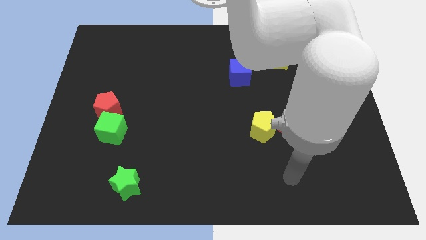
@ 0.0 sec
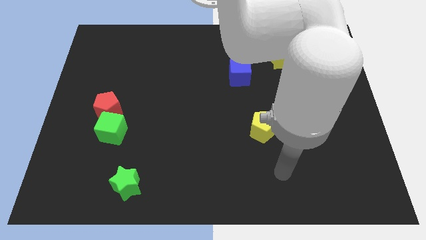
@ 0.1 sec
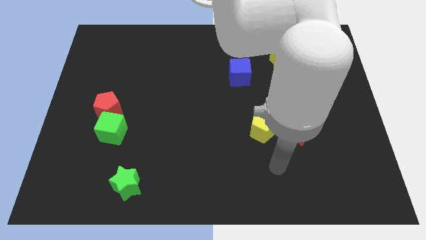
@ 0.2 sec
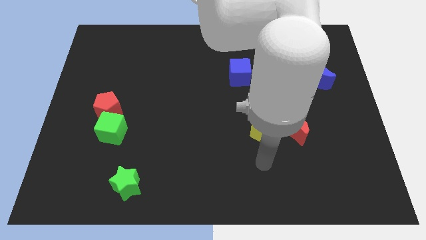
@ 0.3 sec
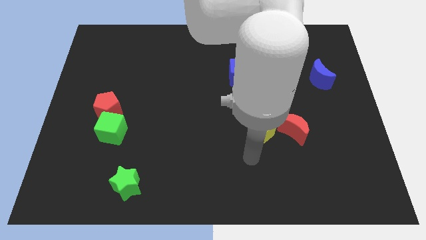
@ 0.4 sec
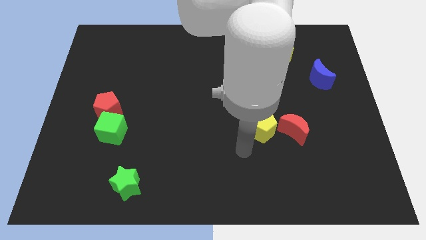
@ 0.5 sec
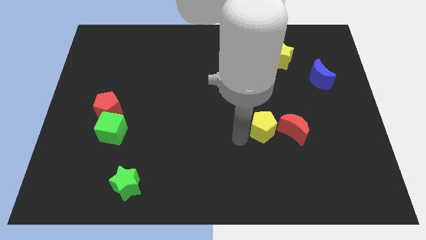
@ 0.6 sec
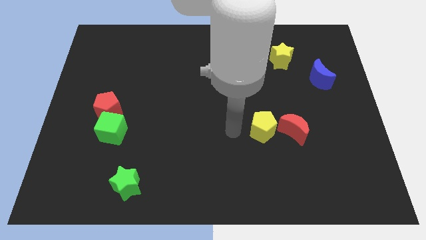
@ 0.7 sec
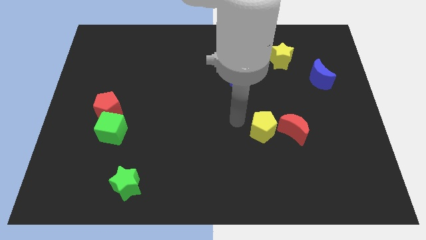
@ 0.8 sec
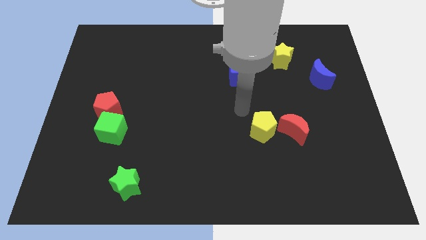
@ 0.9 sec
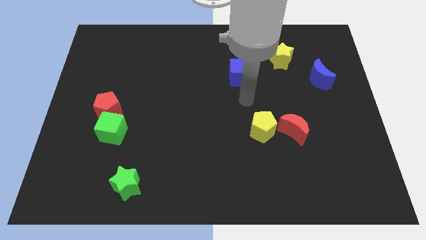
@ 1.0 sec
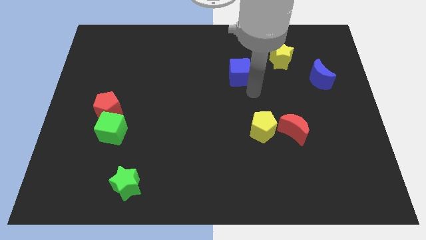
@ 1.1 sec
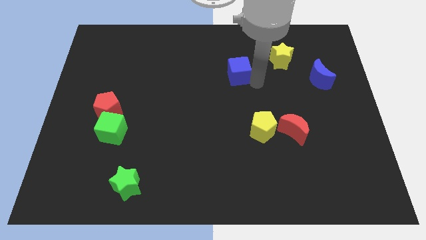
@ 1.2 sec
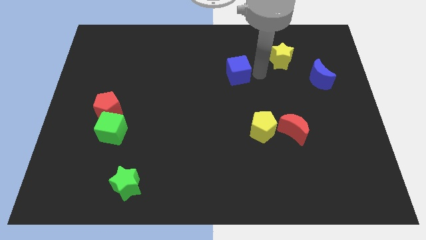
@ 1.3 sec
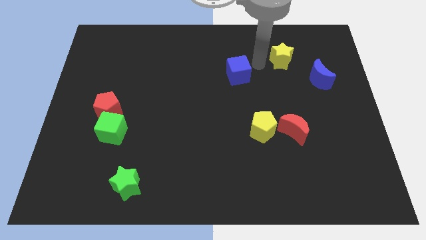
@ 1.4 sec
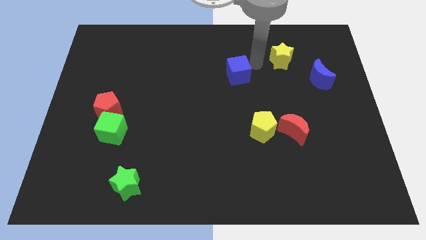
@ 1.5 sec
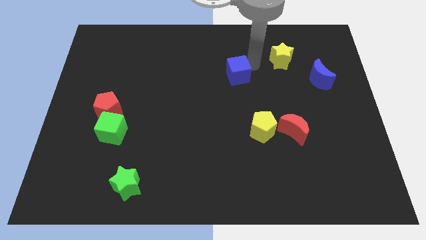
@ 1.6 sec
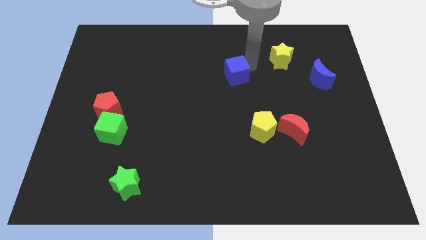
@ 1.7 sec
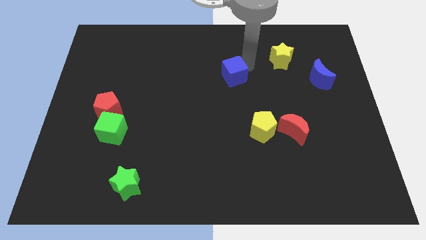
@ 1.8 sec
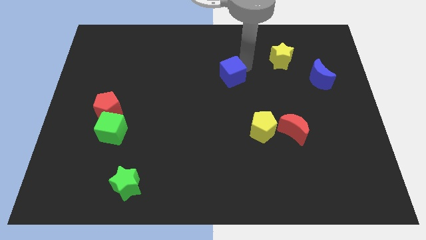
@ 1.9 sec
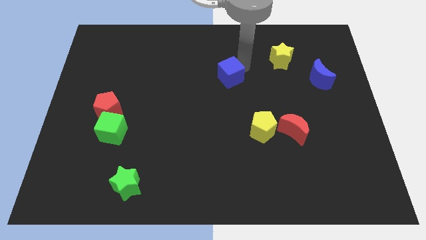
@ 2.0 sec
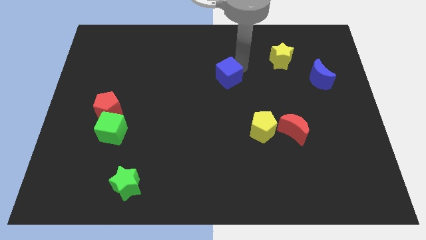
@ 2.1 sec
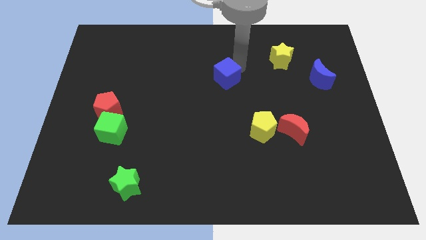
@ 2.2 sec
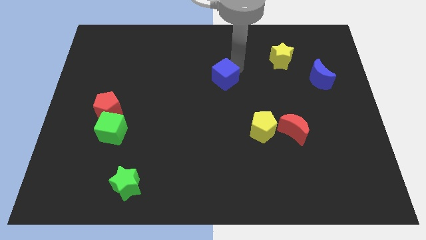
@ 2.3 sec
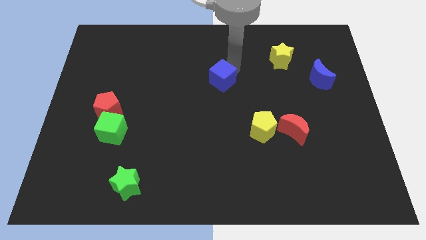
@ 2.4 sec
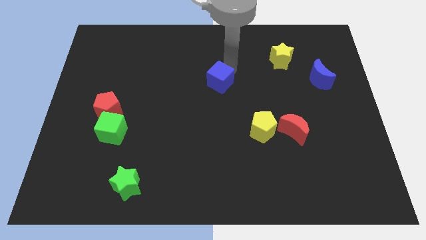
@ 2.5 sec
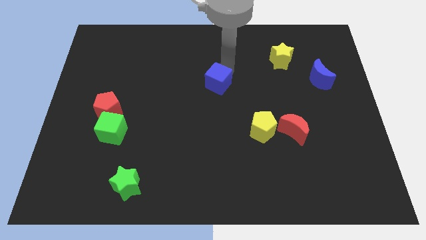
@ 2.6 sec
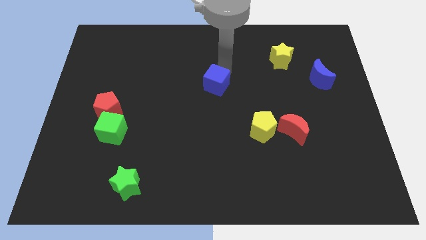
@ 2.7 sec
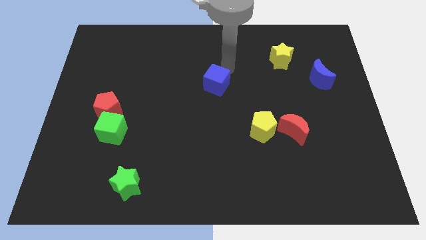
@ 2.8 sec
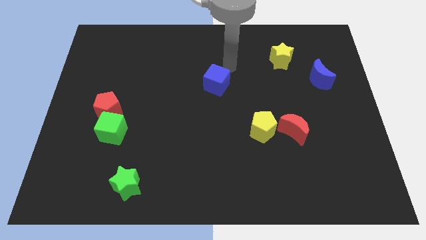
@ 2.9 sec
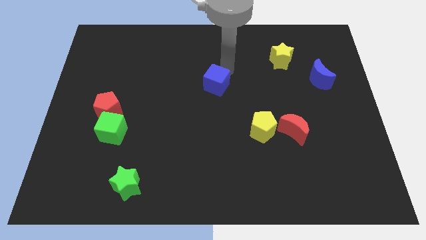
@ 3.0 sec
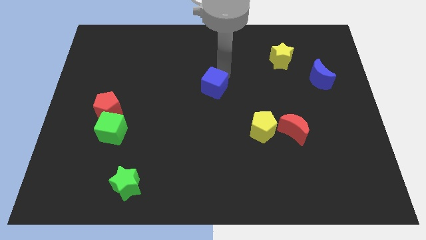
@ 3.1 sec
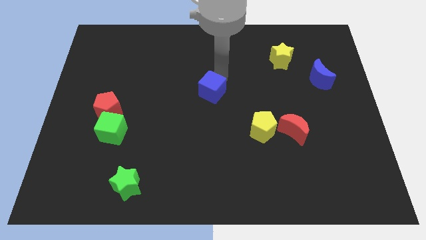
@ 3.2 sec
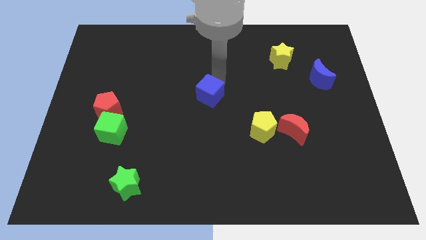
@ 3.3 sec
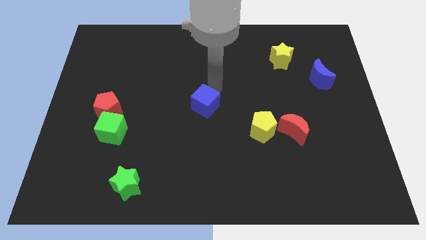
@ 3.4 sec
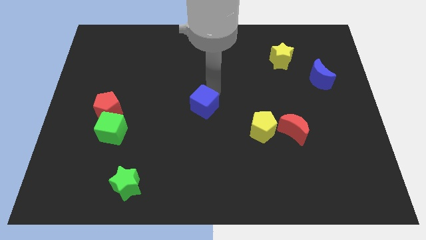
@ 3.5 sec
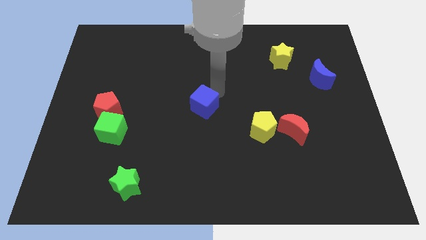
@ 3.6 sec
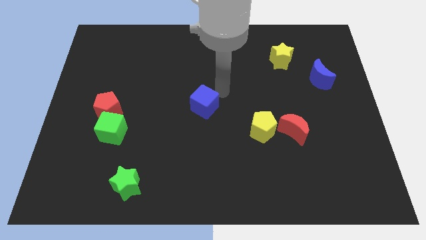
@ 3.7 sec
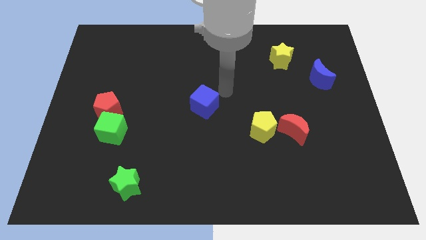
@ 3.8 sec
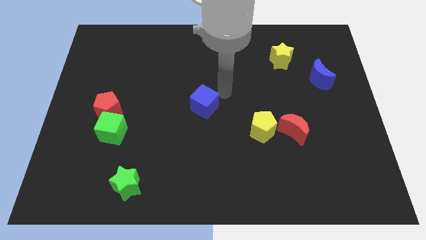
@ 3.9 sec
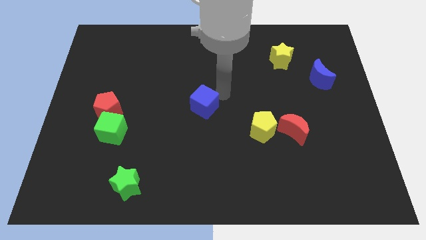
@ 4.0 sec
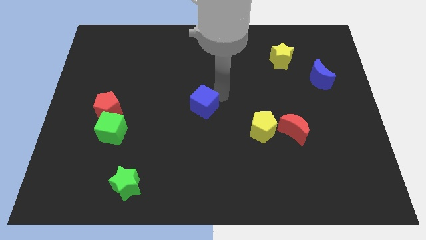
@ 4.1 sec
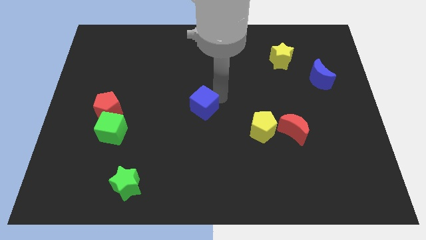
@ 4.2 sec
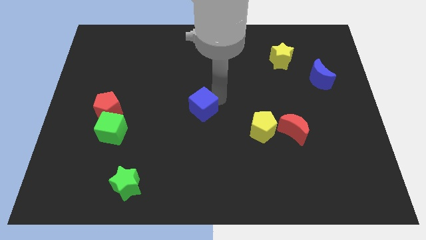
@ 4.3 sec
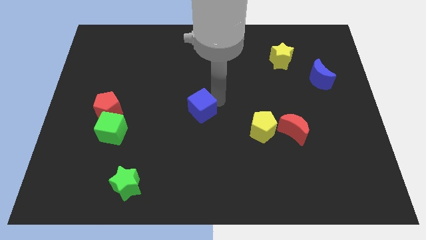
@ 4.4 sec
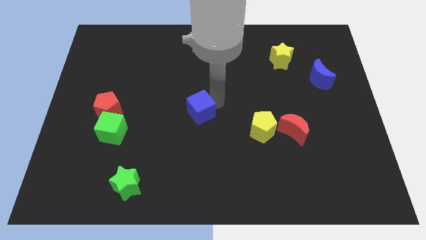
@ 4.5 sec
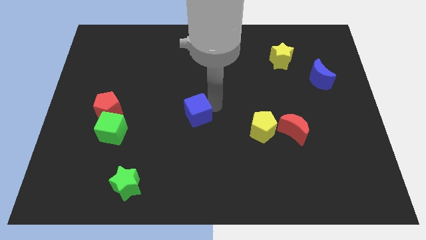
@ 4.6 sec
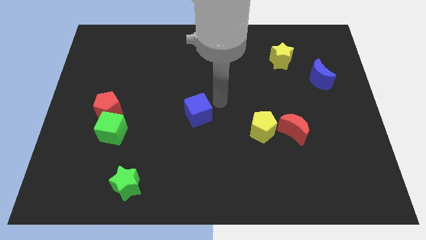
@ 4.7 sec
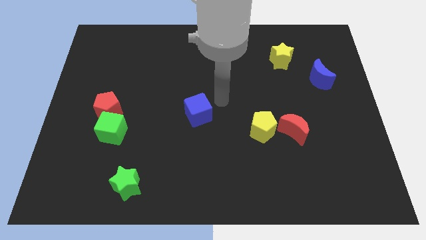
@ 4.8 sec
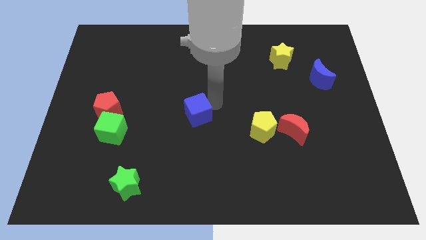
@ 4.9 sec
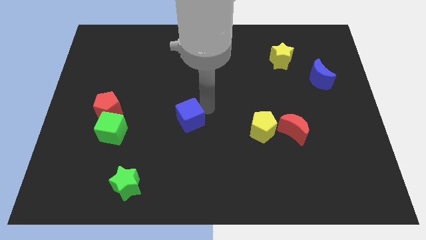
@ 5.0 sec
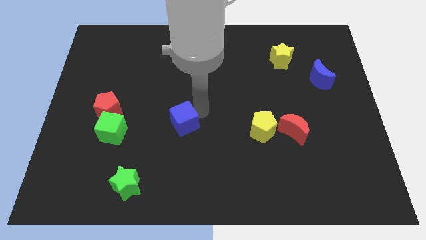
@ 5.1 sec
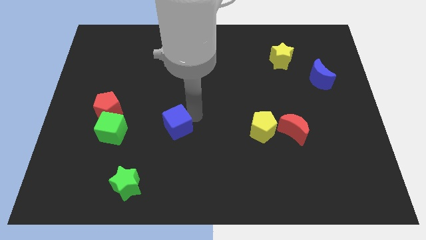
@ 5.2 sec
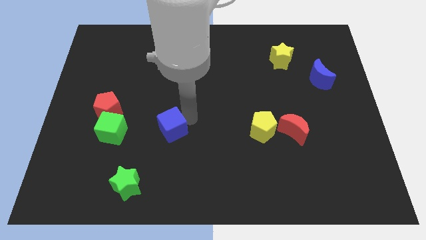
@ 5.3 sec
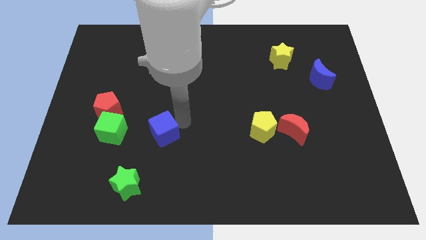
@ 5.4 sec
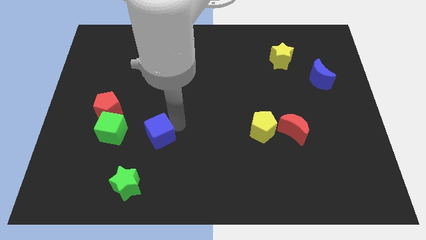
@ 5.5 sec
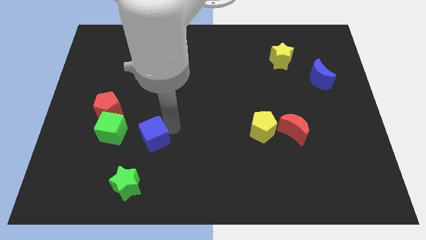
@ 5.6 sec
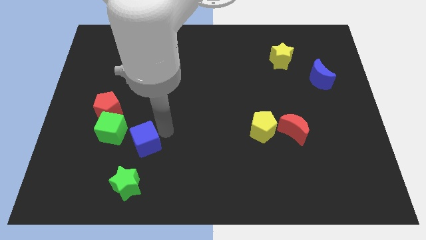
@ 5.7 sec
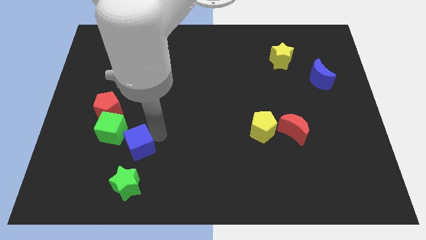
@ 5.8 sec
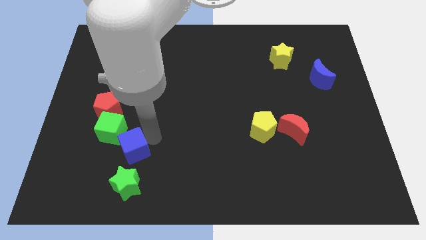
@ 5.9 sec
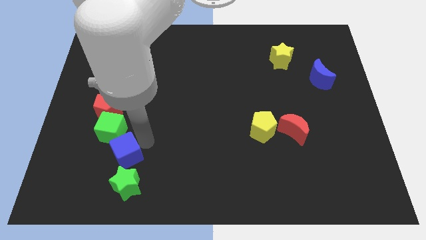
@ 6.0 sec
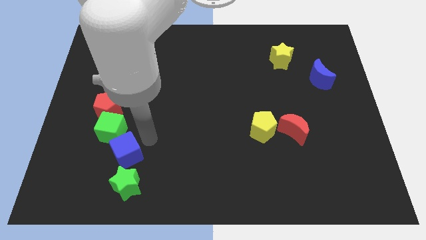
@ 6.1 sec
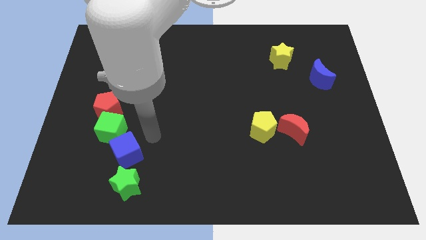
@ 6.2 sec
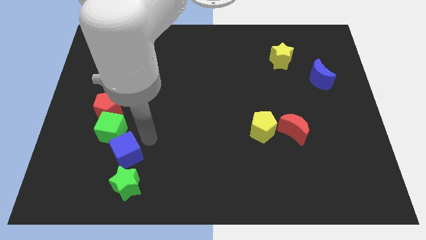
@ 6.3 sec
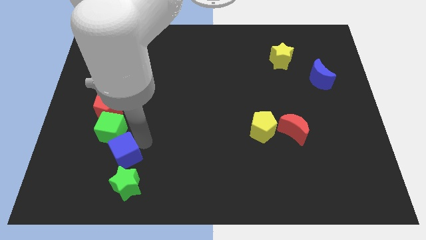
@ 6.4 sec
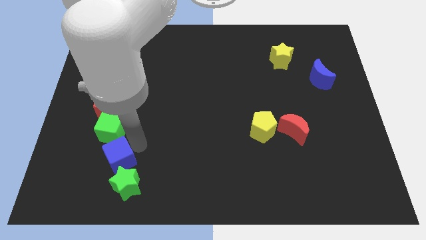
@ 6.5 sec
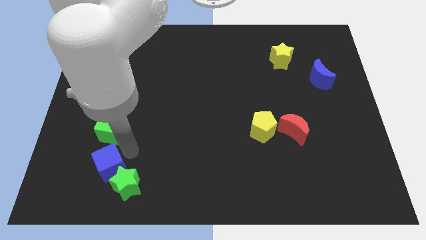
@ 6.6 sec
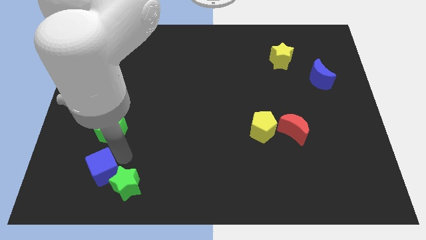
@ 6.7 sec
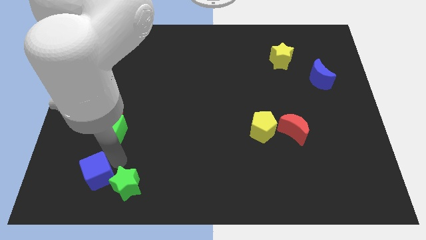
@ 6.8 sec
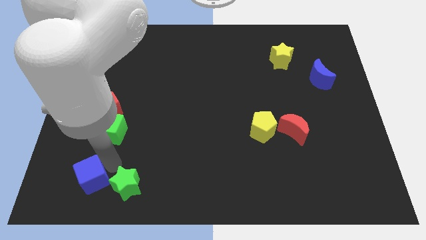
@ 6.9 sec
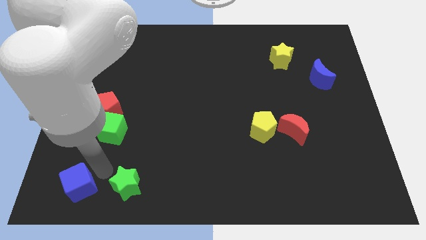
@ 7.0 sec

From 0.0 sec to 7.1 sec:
slide the blue cube to the bottom left corner
